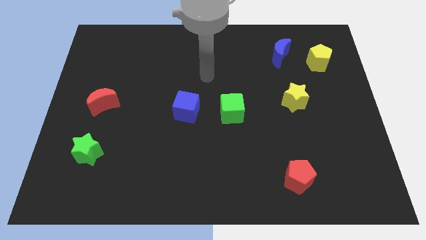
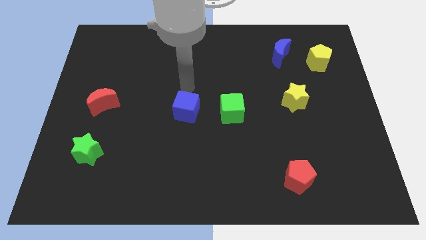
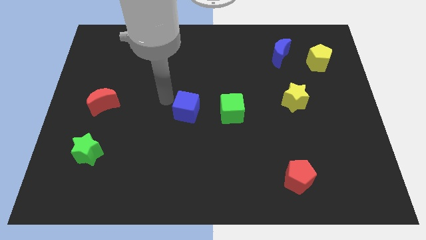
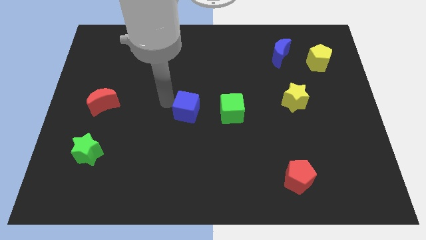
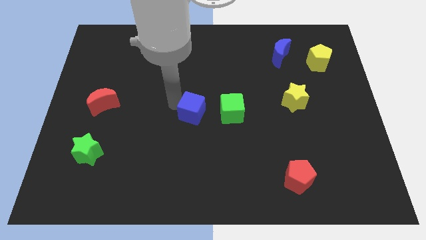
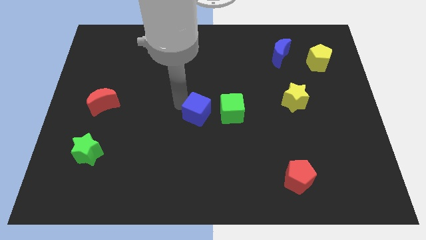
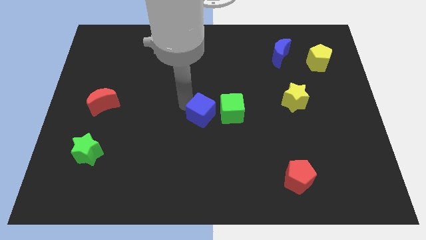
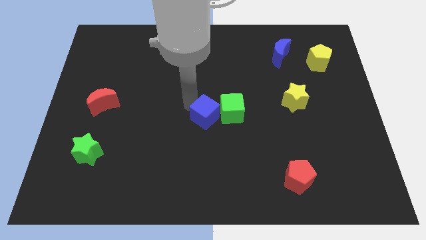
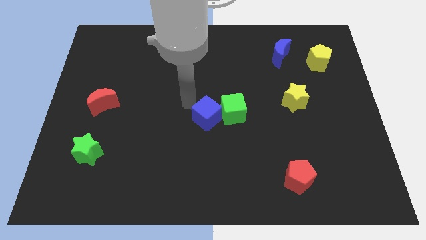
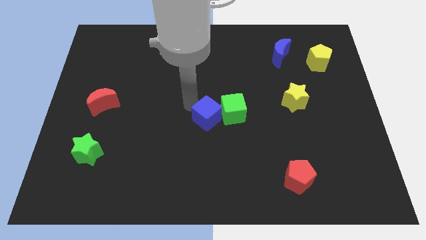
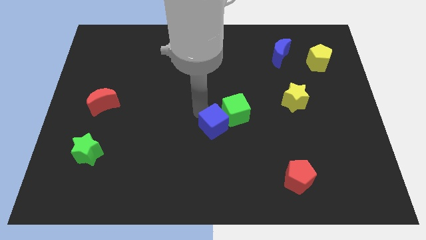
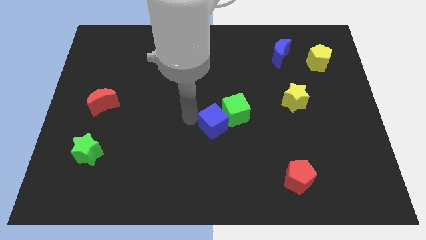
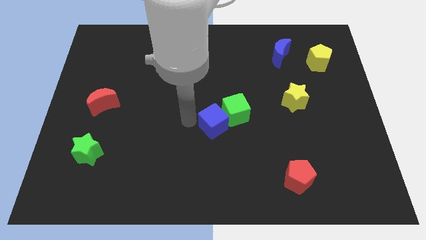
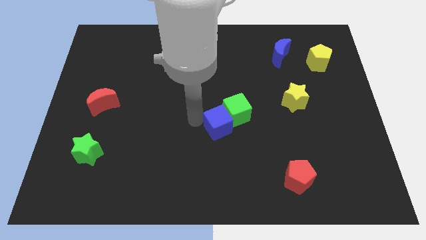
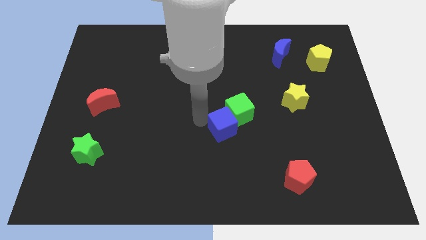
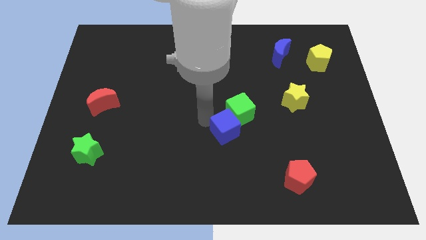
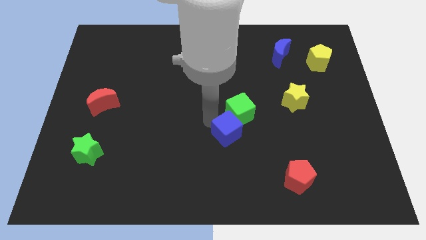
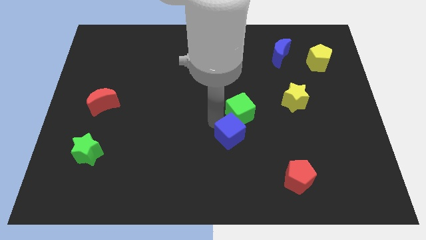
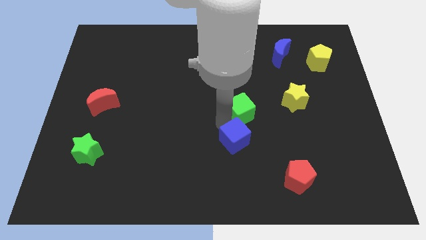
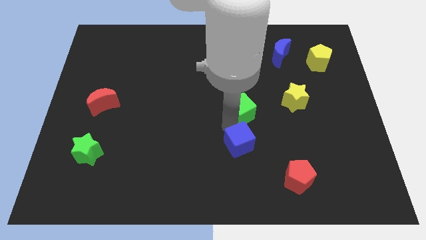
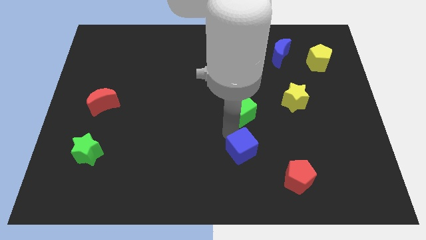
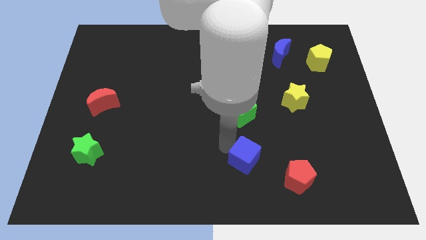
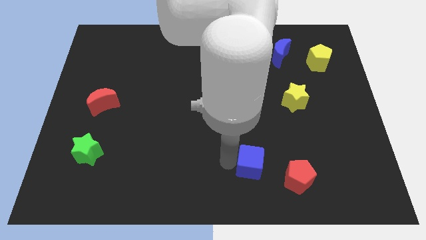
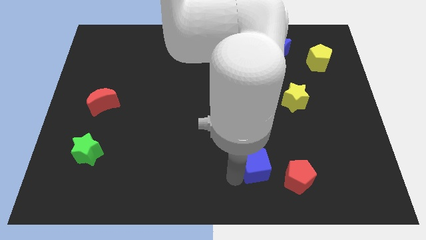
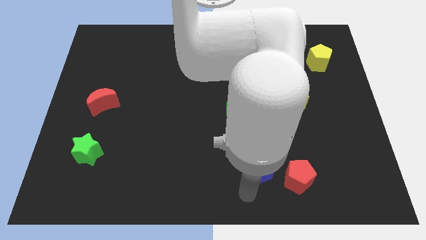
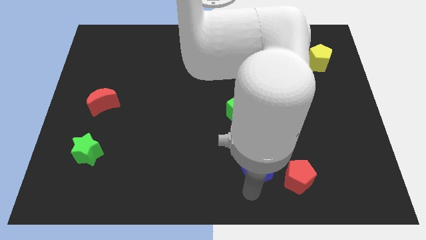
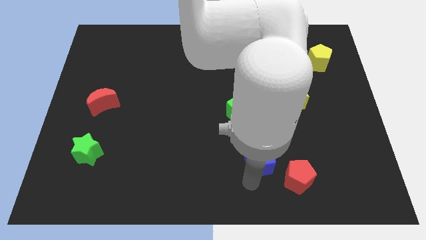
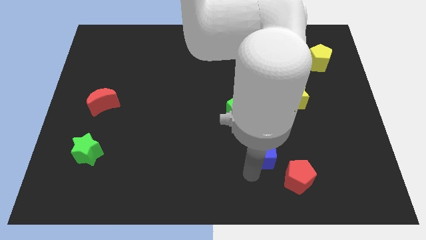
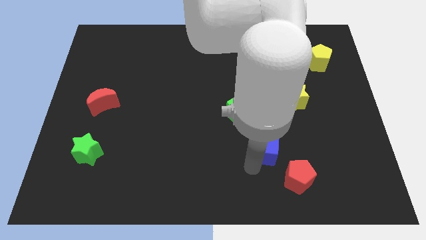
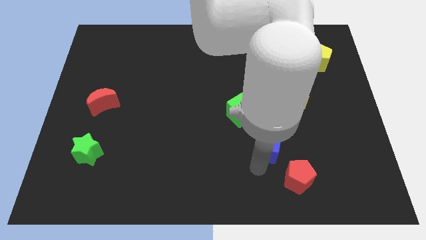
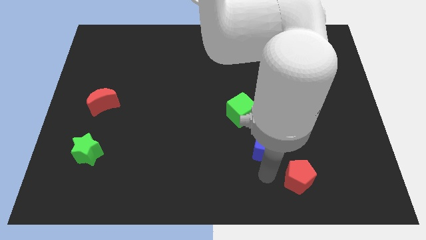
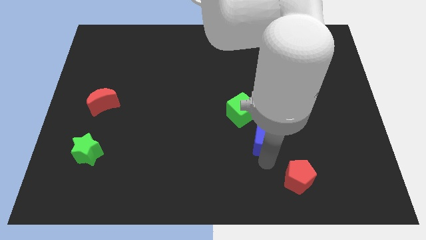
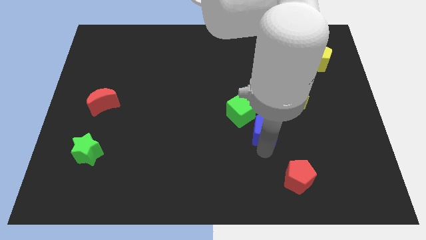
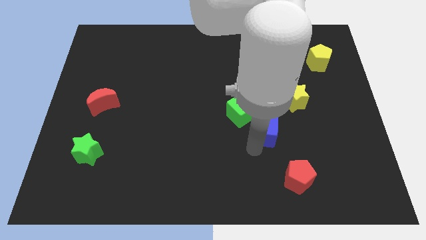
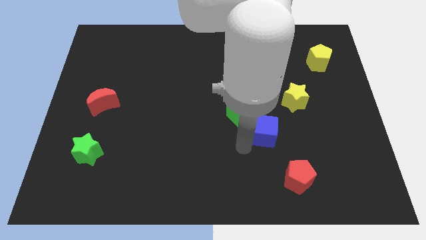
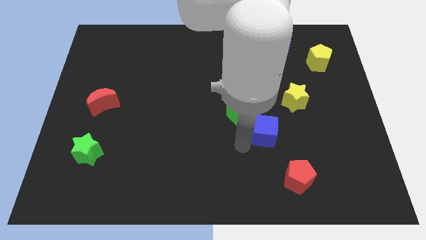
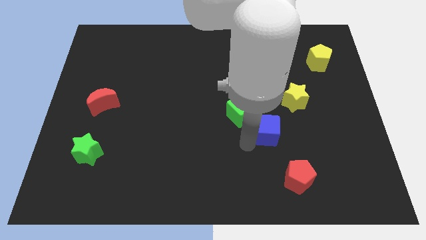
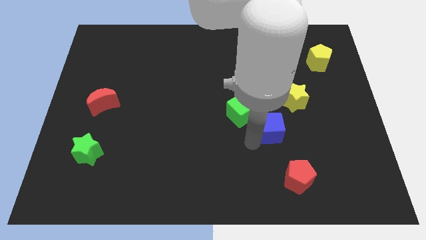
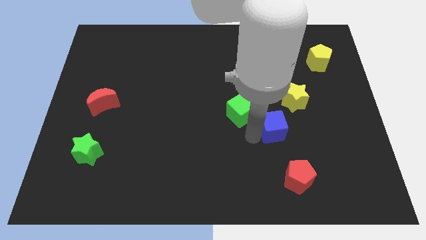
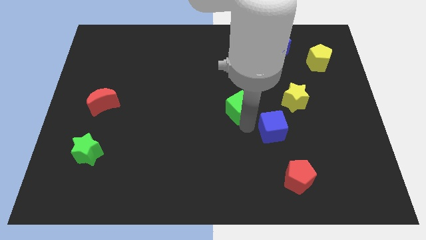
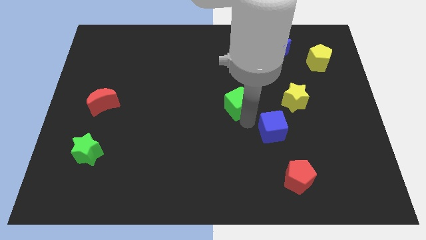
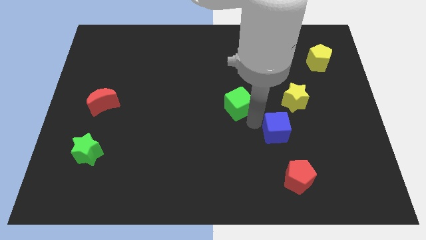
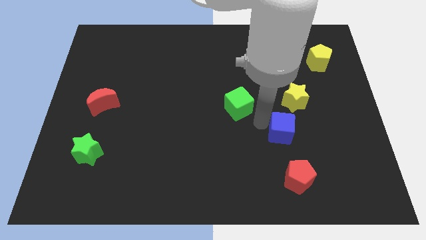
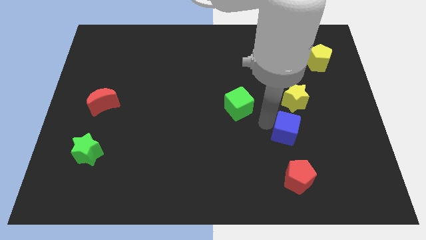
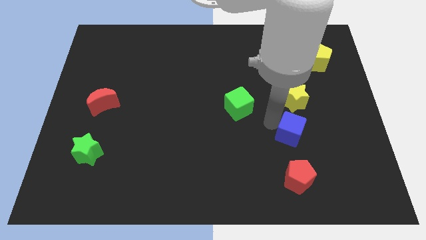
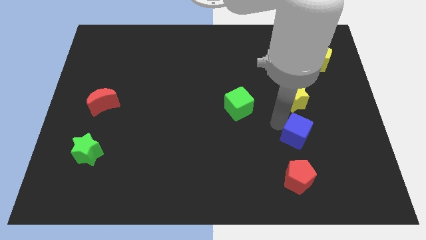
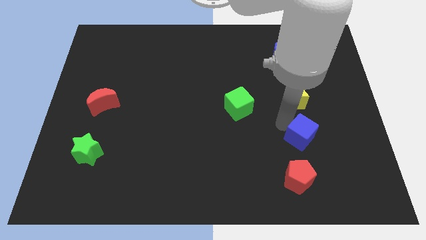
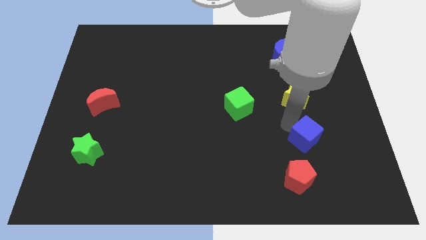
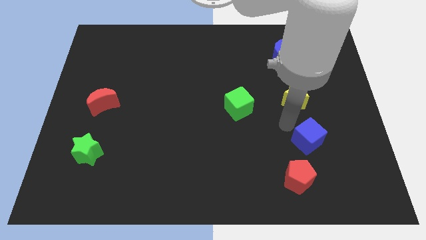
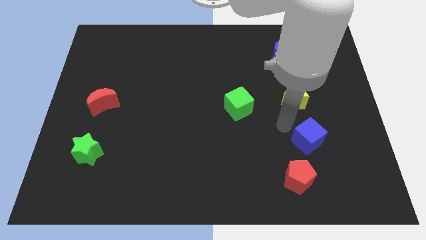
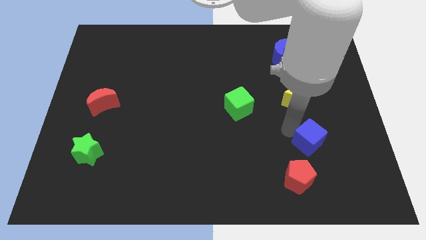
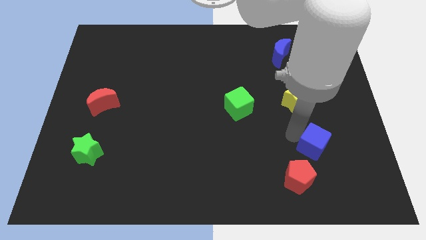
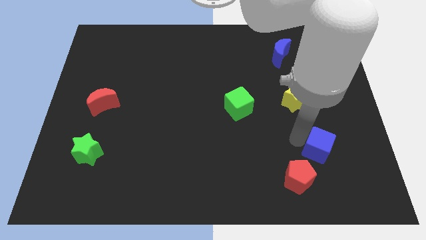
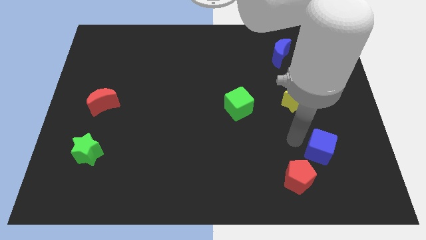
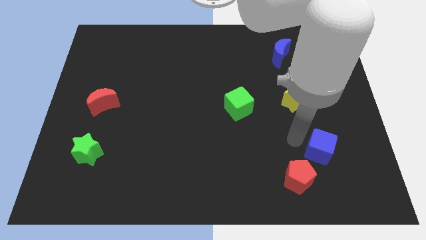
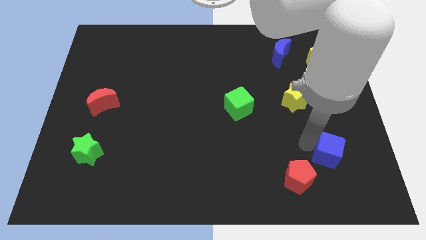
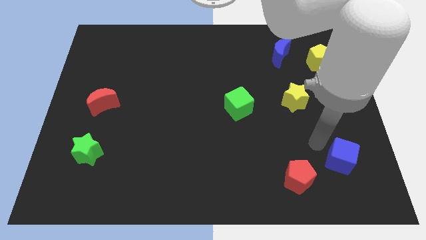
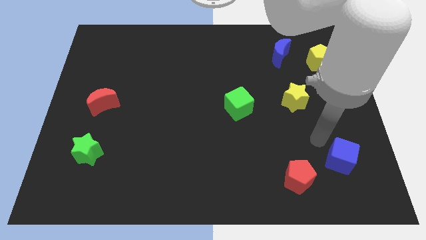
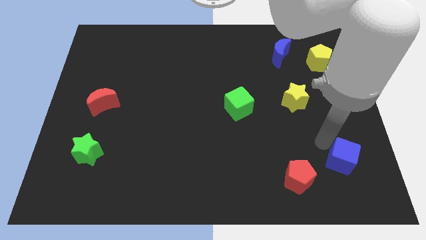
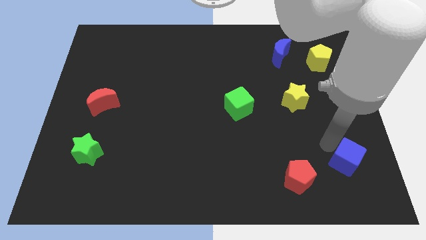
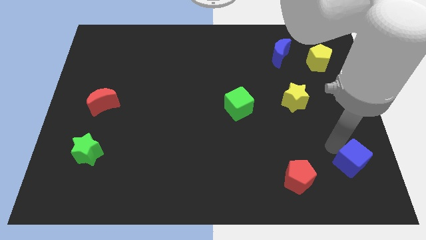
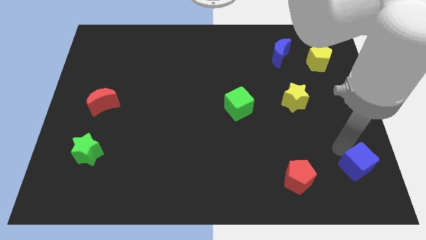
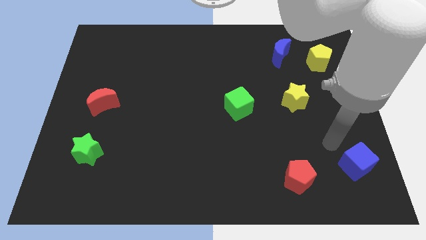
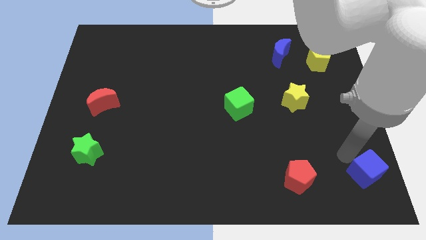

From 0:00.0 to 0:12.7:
push the blue cube to the lower right corner

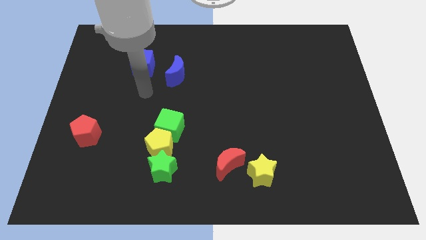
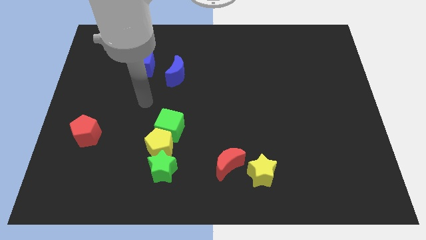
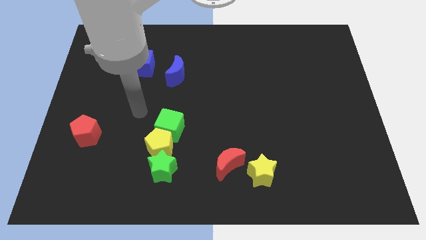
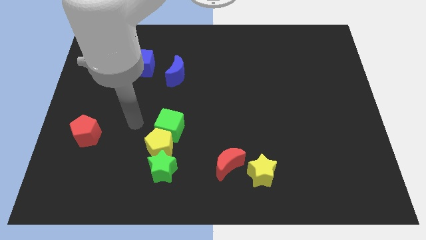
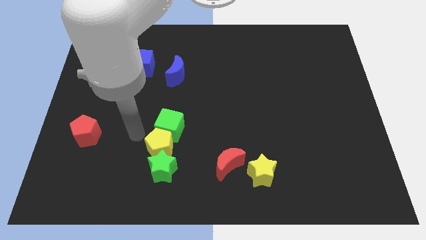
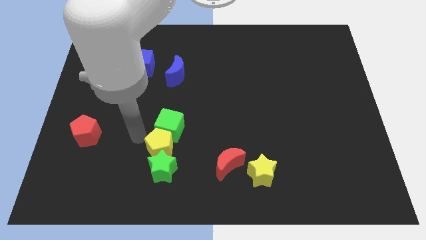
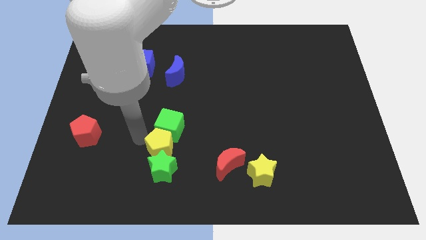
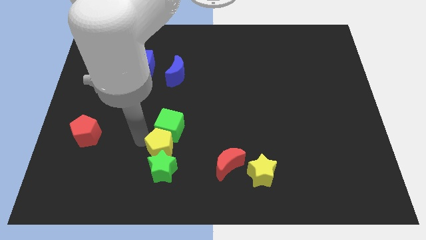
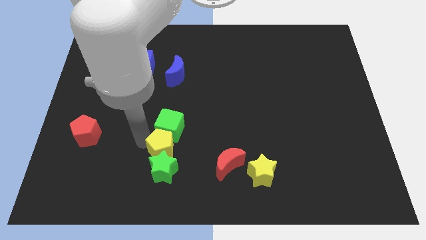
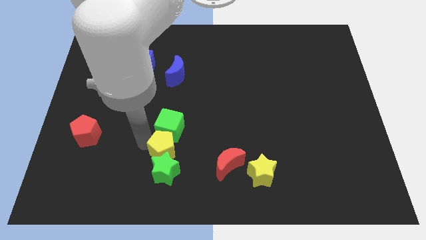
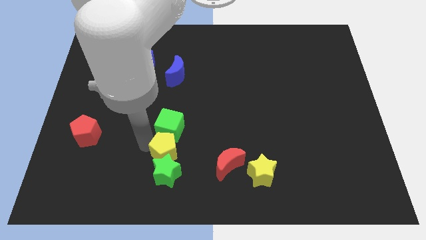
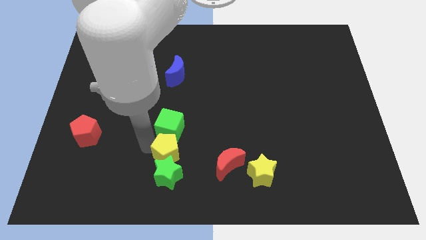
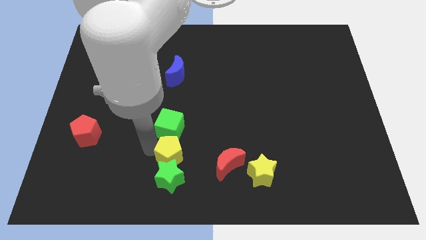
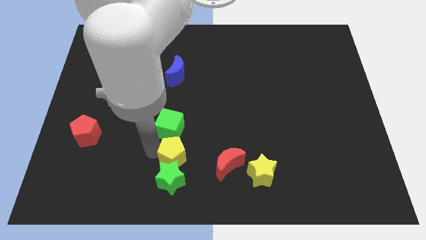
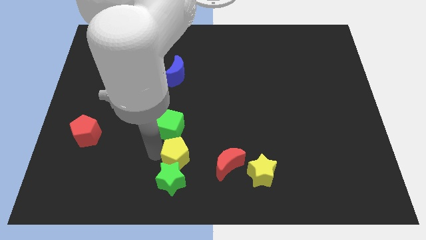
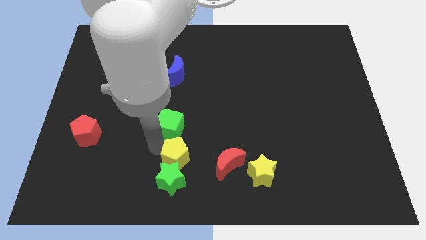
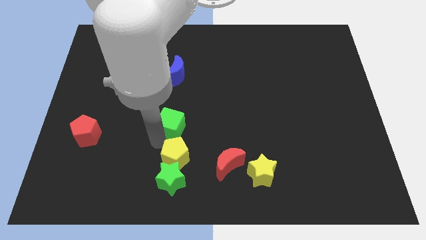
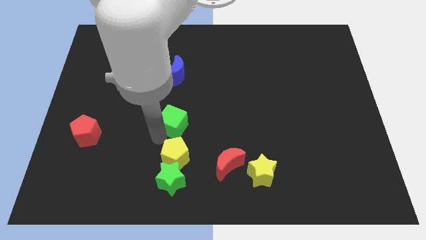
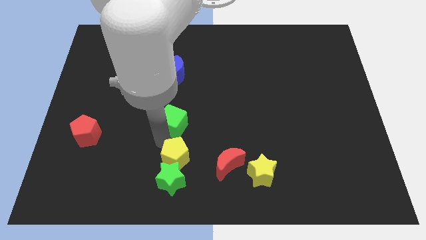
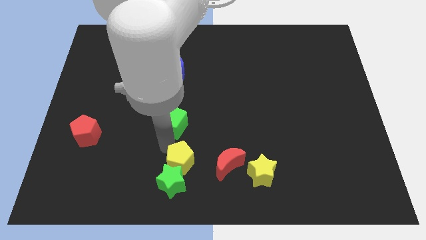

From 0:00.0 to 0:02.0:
slide the yellow pentagon to the bottom
